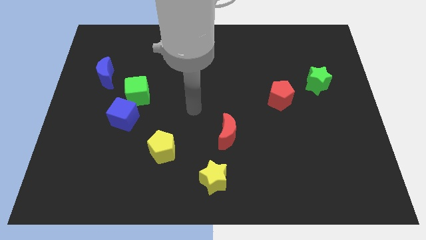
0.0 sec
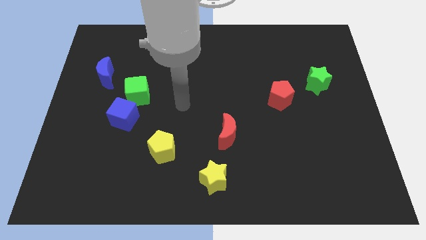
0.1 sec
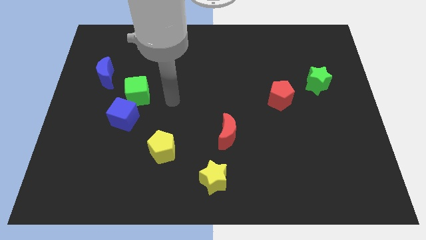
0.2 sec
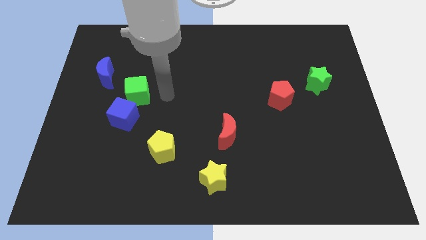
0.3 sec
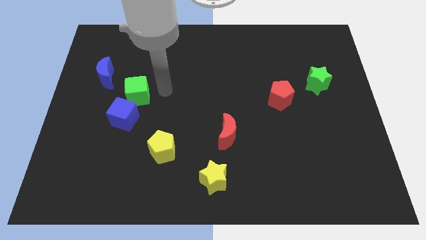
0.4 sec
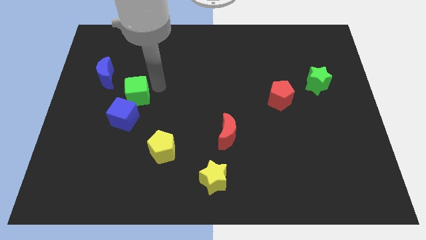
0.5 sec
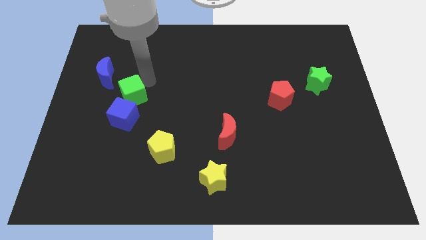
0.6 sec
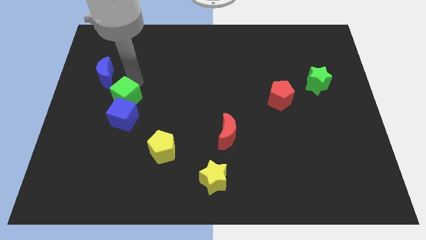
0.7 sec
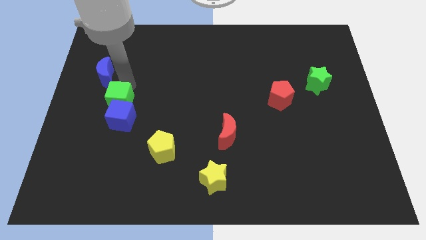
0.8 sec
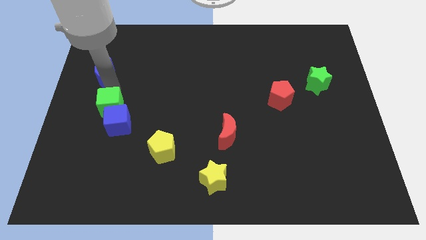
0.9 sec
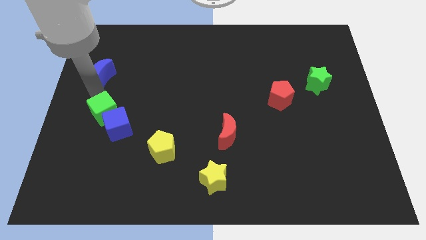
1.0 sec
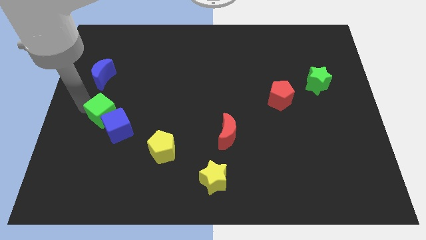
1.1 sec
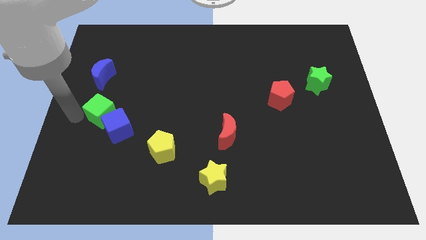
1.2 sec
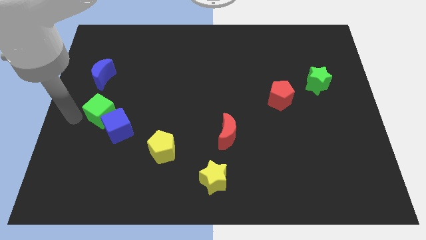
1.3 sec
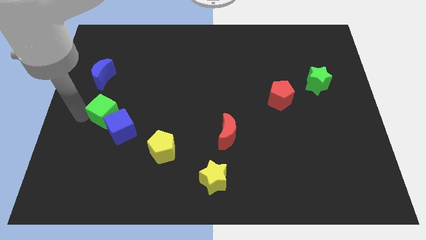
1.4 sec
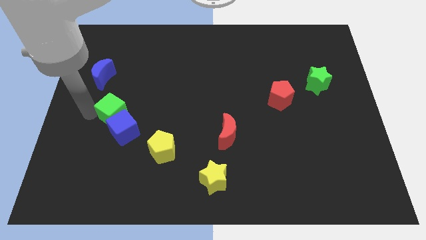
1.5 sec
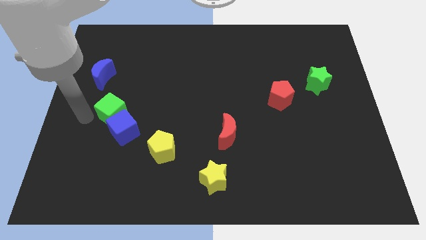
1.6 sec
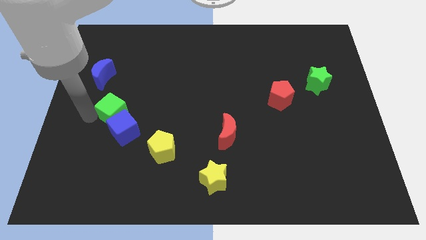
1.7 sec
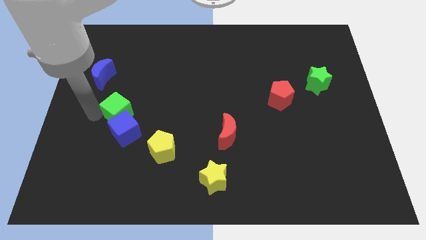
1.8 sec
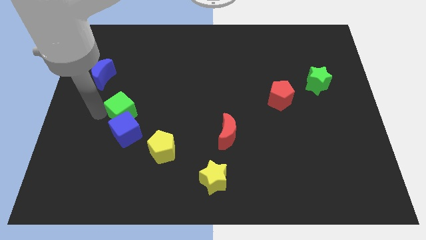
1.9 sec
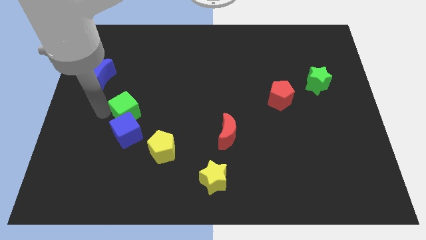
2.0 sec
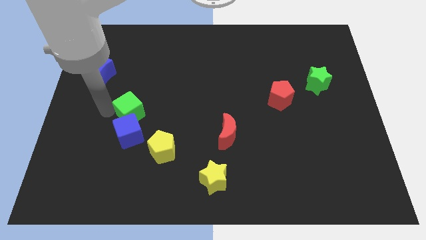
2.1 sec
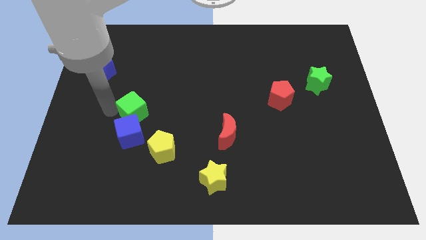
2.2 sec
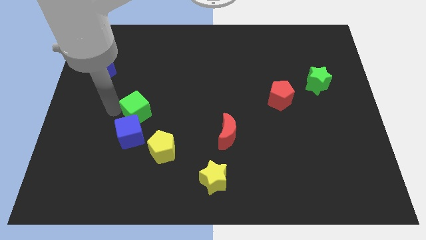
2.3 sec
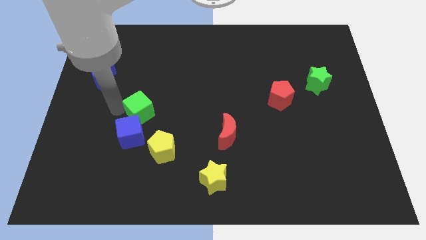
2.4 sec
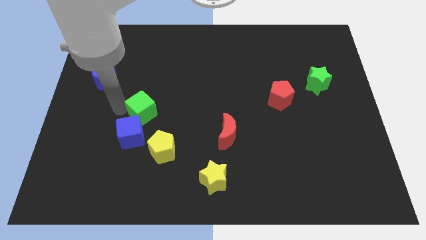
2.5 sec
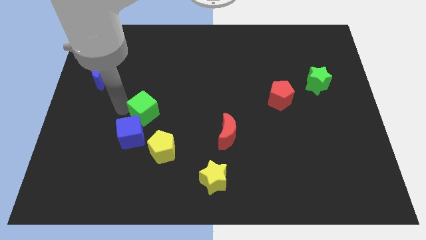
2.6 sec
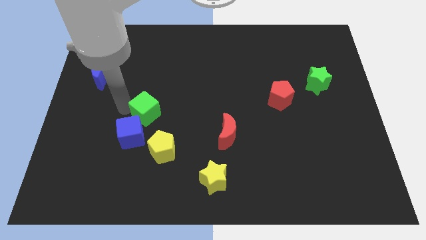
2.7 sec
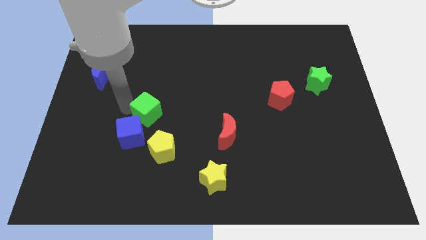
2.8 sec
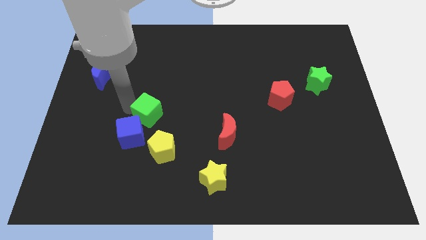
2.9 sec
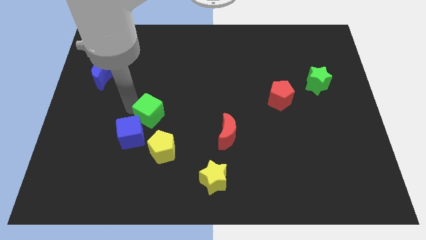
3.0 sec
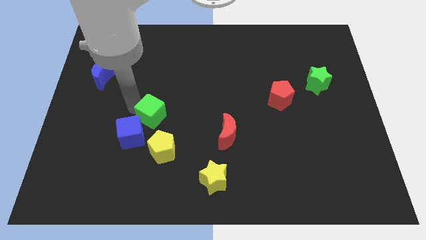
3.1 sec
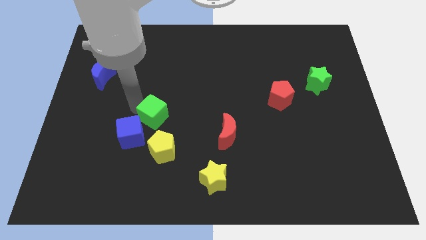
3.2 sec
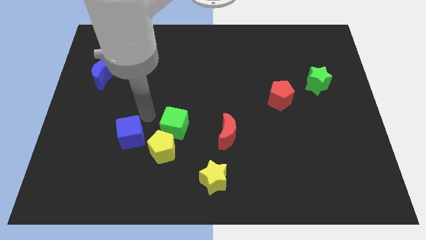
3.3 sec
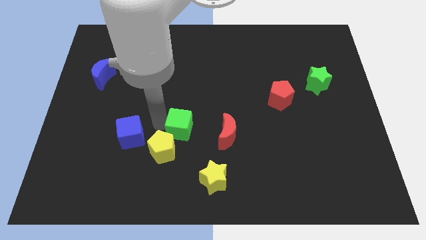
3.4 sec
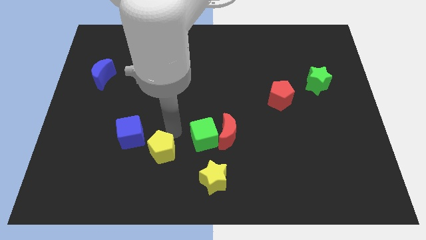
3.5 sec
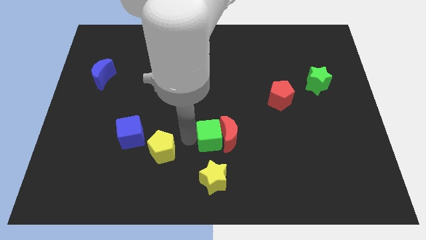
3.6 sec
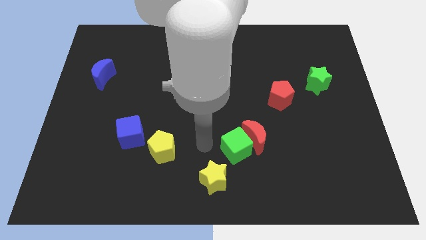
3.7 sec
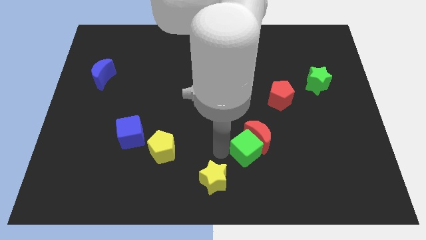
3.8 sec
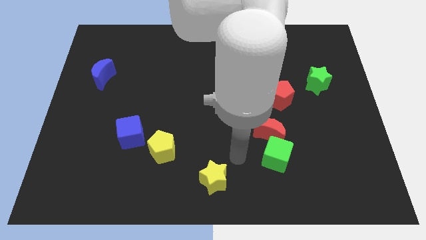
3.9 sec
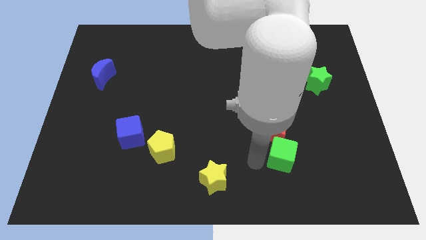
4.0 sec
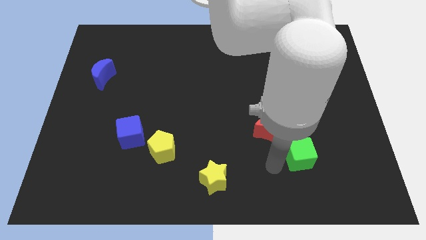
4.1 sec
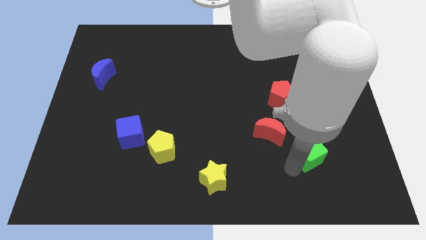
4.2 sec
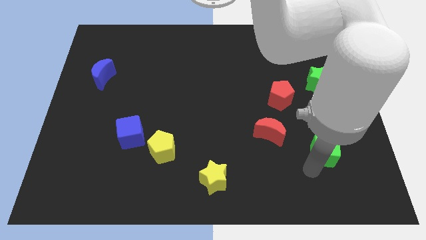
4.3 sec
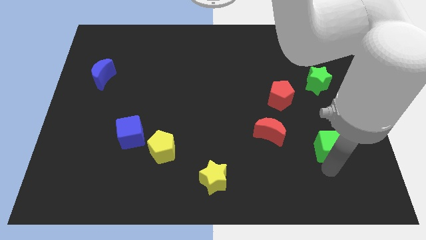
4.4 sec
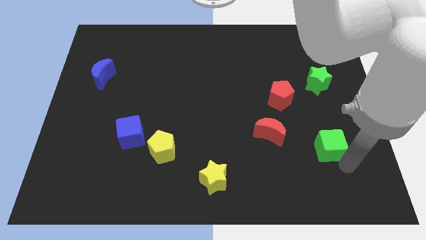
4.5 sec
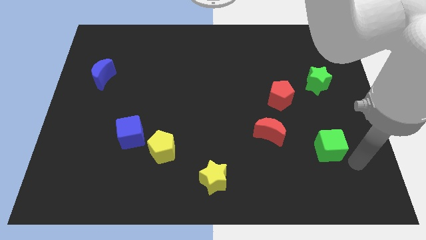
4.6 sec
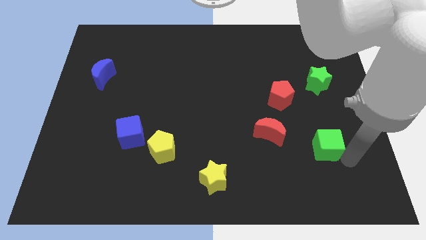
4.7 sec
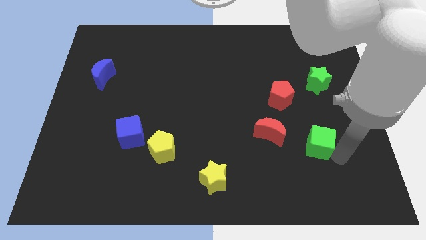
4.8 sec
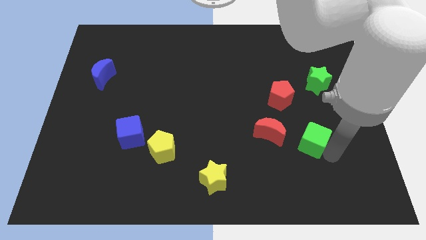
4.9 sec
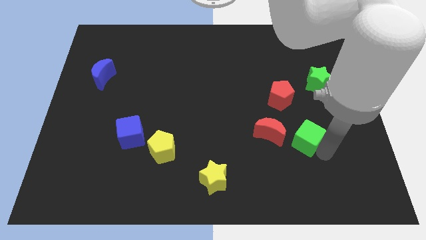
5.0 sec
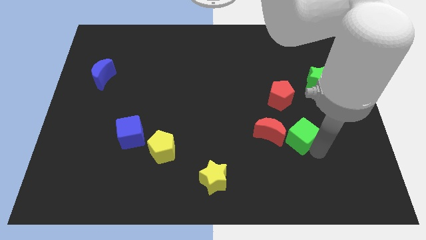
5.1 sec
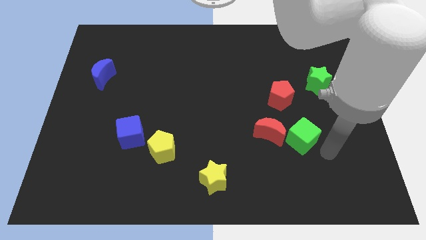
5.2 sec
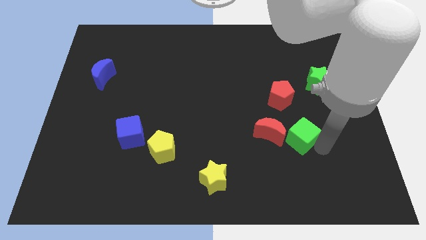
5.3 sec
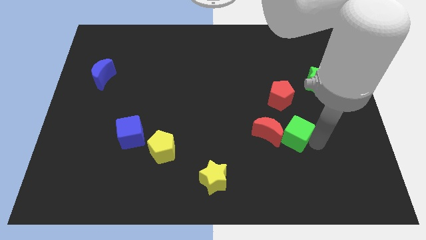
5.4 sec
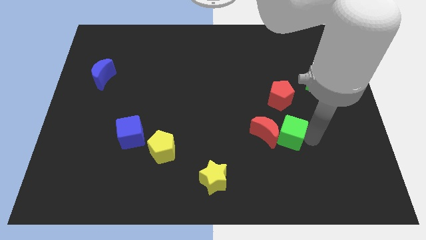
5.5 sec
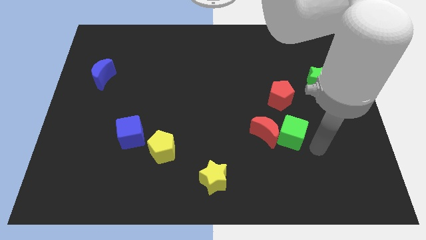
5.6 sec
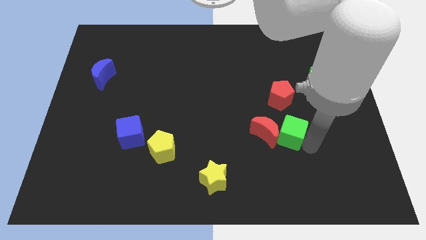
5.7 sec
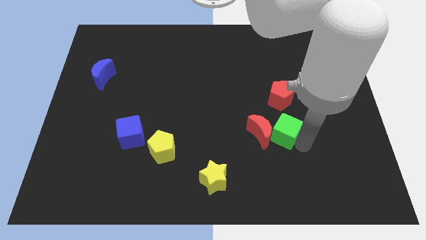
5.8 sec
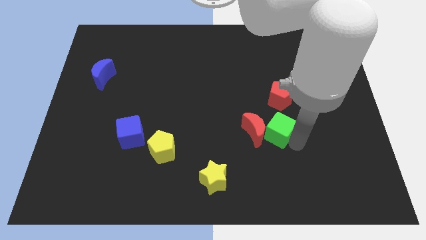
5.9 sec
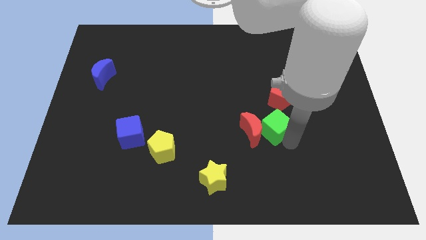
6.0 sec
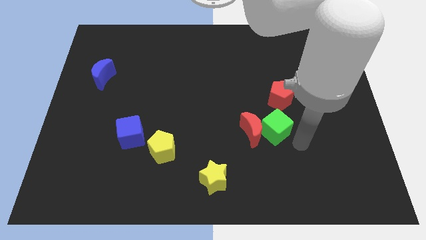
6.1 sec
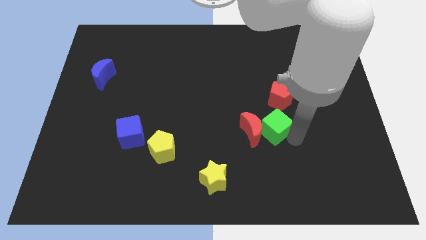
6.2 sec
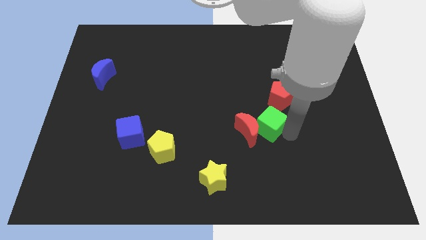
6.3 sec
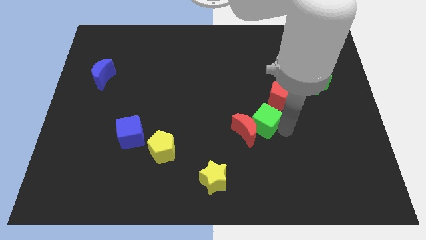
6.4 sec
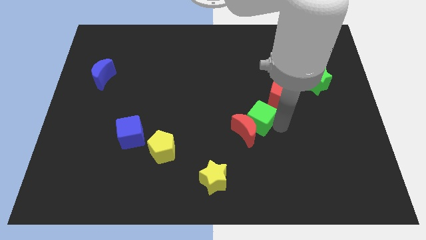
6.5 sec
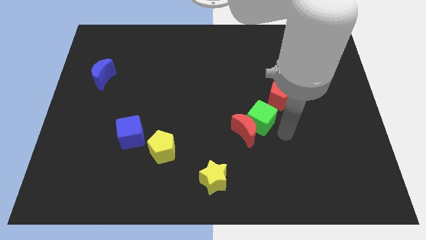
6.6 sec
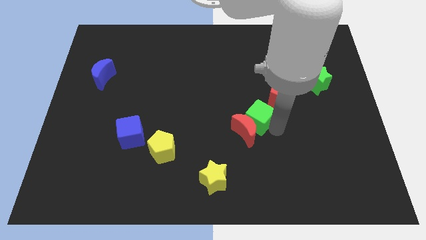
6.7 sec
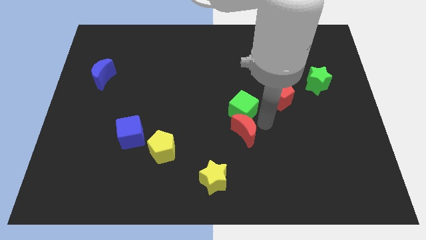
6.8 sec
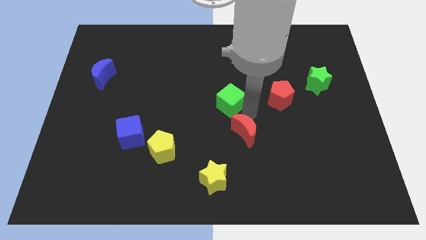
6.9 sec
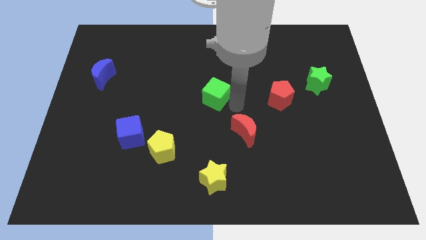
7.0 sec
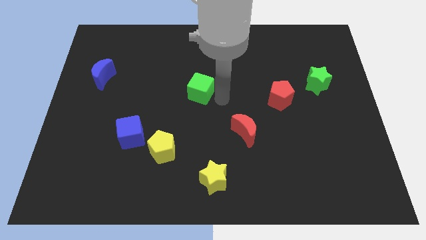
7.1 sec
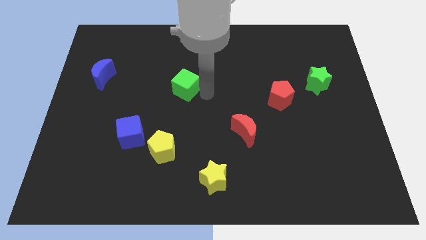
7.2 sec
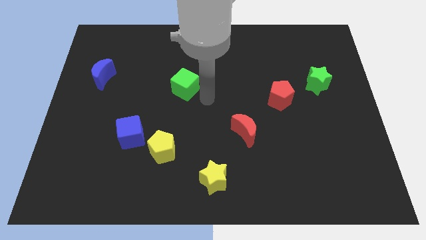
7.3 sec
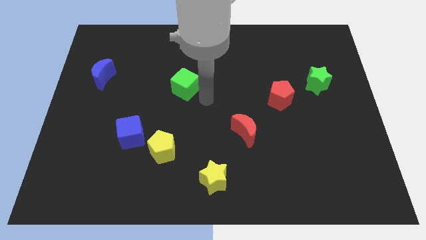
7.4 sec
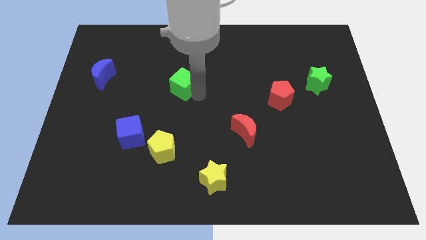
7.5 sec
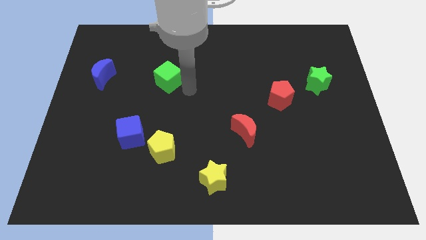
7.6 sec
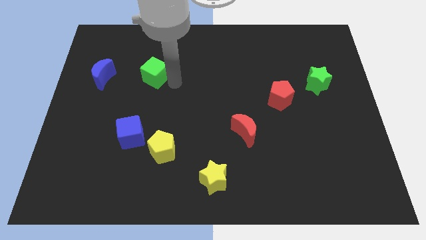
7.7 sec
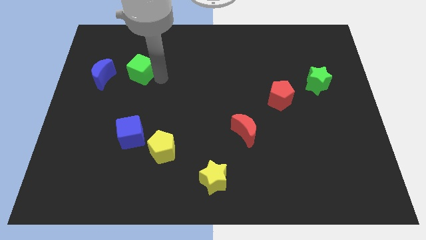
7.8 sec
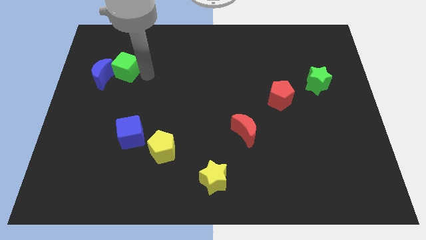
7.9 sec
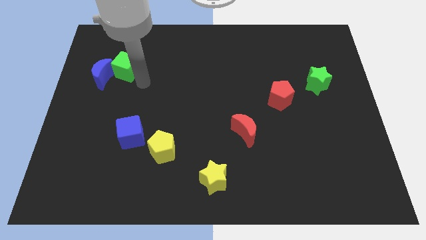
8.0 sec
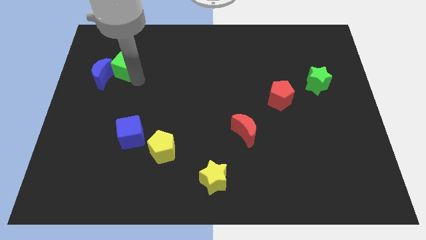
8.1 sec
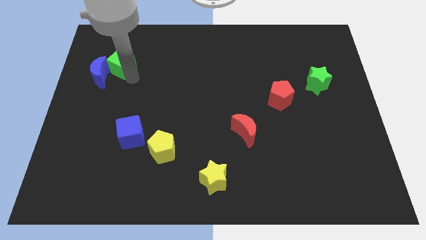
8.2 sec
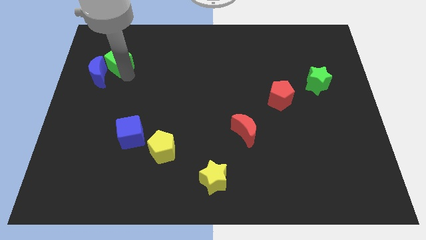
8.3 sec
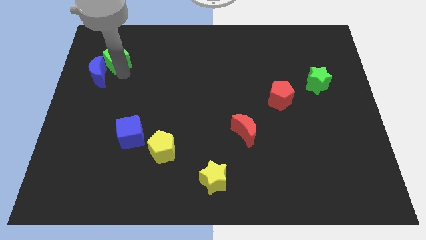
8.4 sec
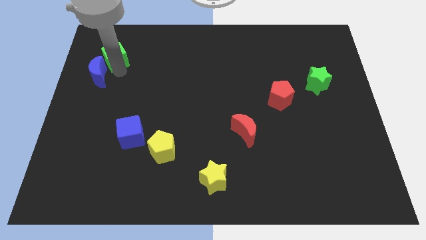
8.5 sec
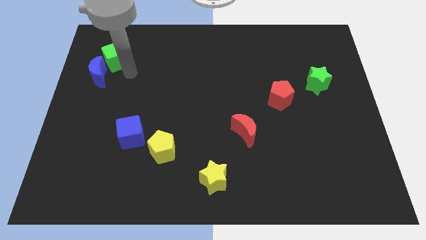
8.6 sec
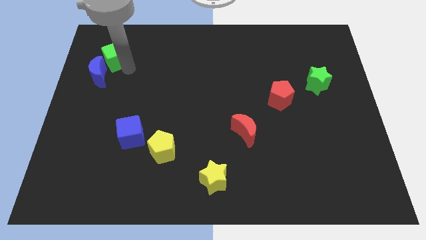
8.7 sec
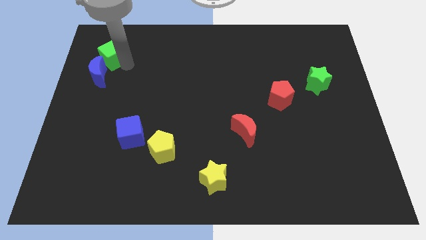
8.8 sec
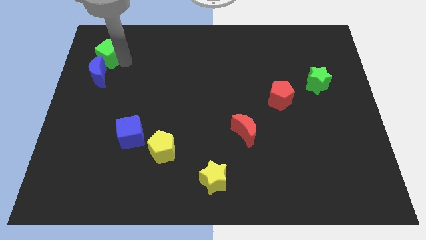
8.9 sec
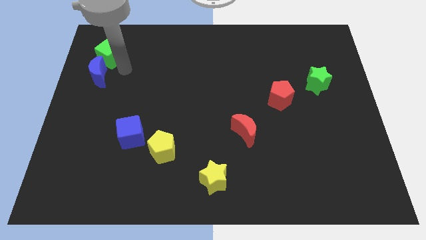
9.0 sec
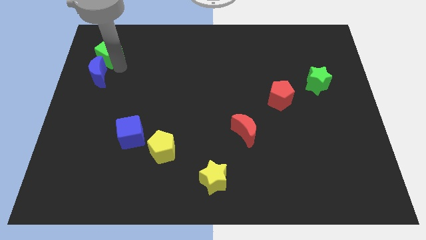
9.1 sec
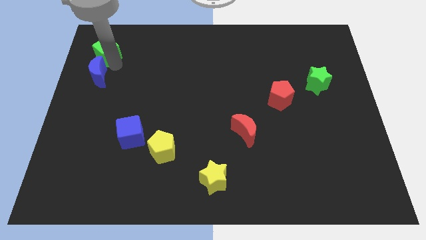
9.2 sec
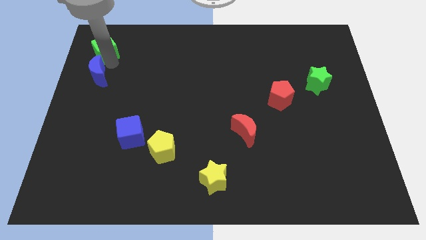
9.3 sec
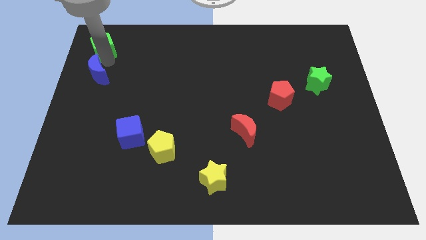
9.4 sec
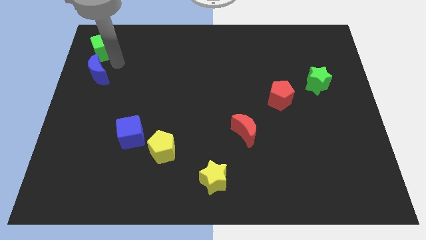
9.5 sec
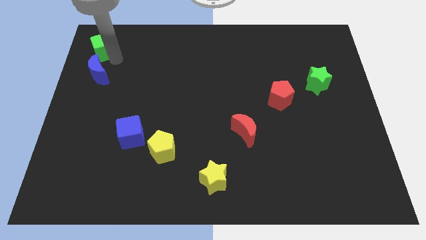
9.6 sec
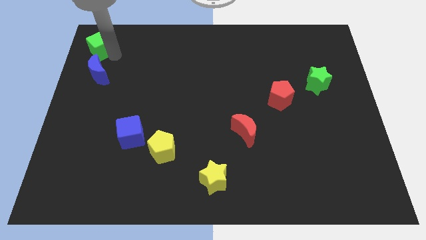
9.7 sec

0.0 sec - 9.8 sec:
slide the green cube to the top left of the board
